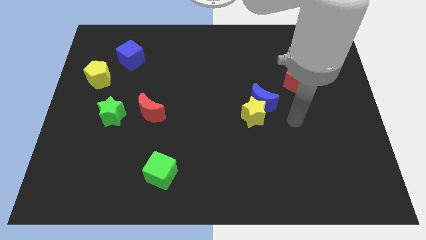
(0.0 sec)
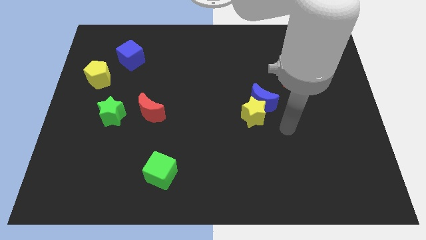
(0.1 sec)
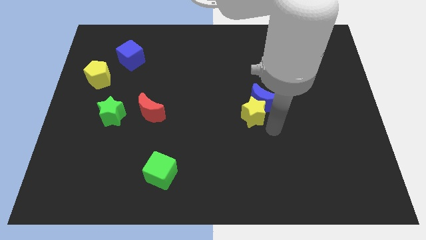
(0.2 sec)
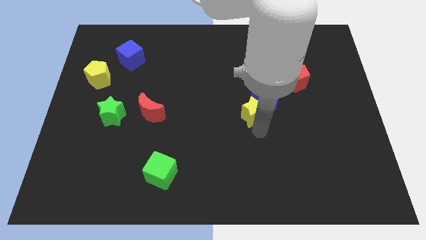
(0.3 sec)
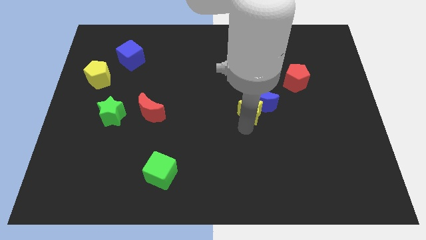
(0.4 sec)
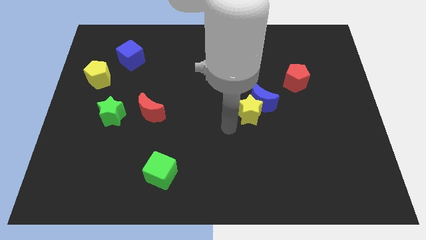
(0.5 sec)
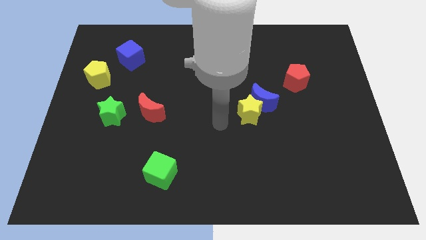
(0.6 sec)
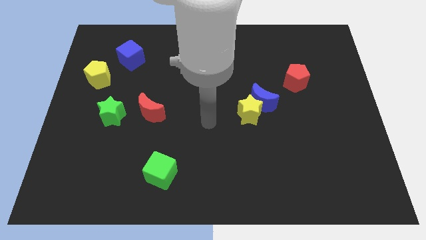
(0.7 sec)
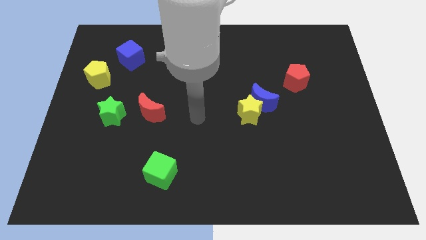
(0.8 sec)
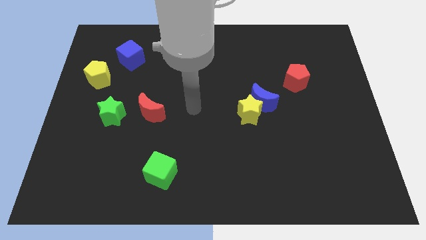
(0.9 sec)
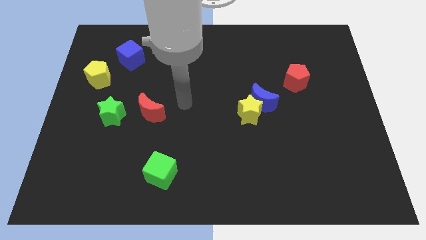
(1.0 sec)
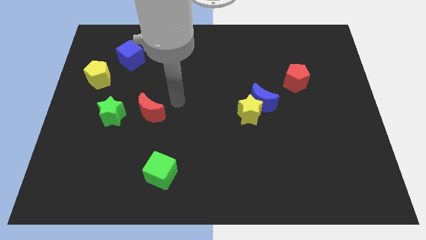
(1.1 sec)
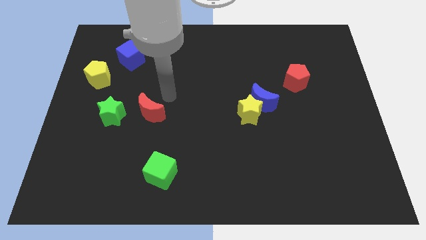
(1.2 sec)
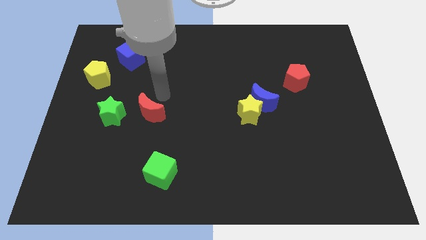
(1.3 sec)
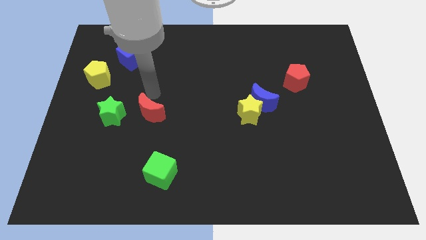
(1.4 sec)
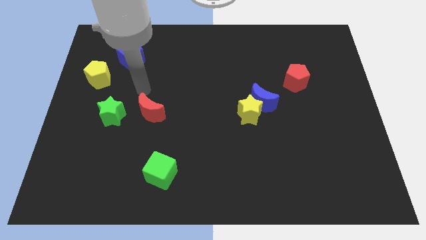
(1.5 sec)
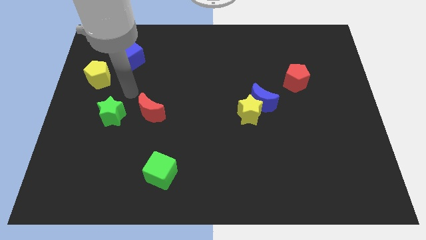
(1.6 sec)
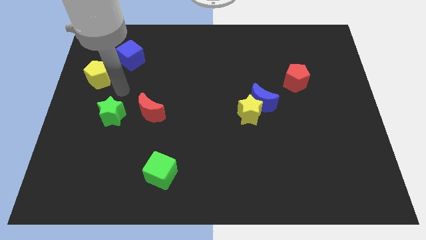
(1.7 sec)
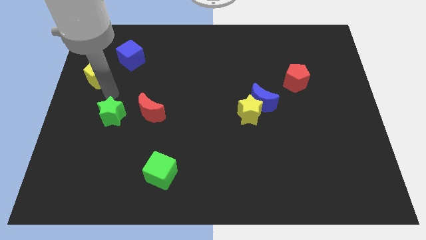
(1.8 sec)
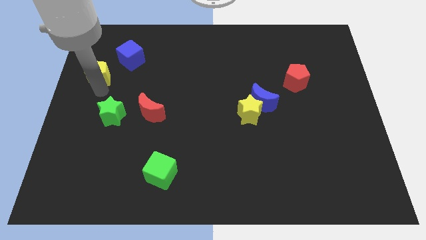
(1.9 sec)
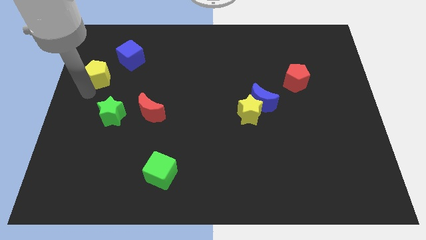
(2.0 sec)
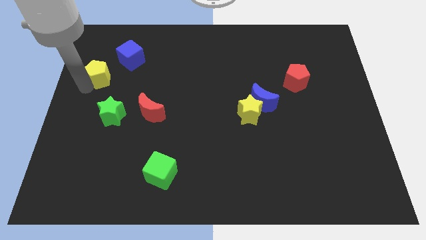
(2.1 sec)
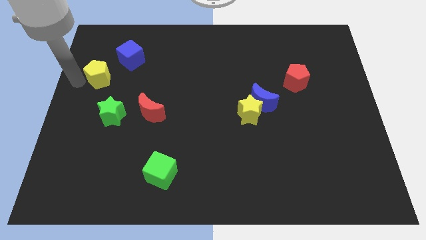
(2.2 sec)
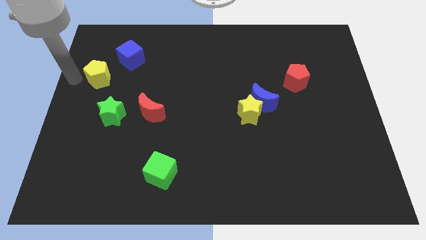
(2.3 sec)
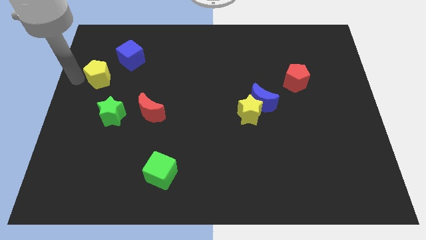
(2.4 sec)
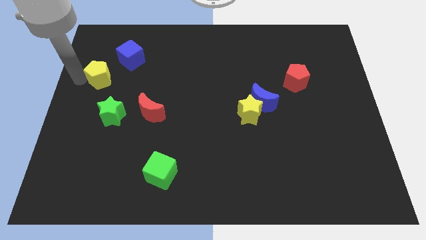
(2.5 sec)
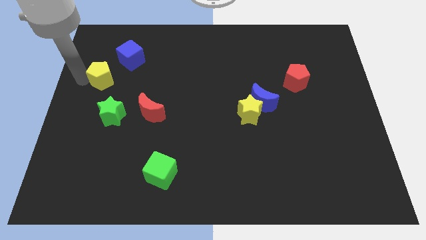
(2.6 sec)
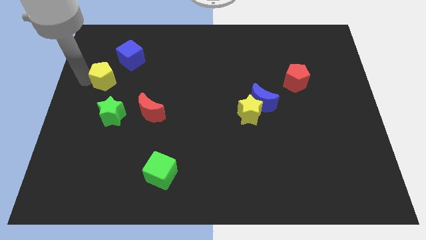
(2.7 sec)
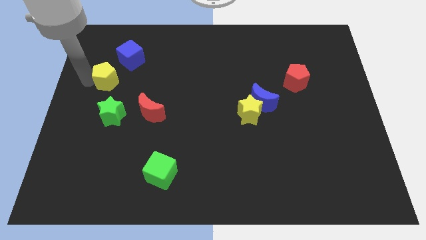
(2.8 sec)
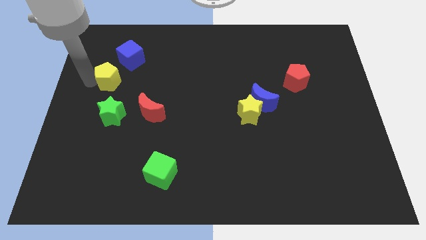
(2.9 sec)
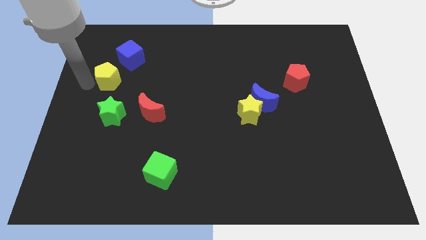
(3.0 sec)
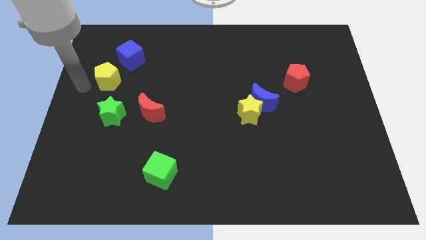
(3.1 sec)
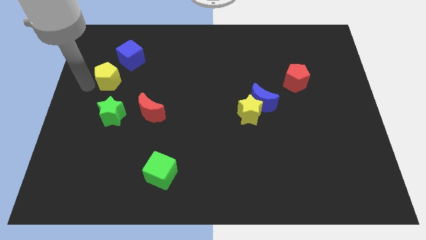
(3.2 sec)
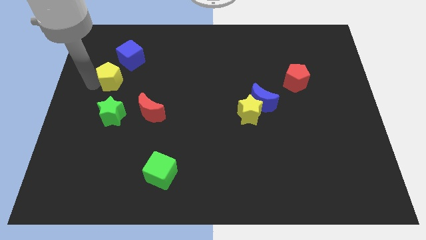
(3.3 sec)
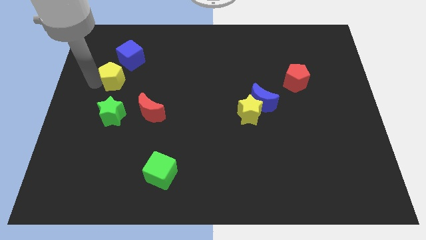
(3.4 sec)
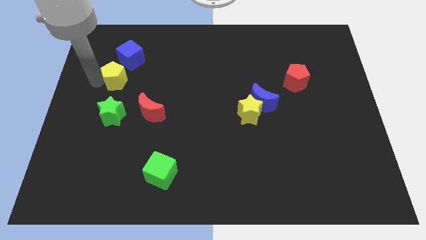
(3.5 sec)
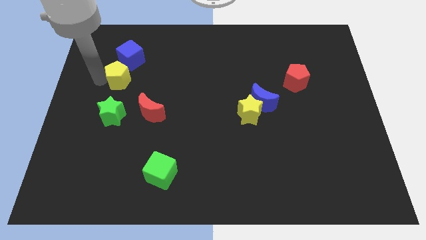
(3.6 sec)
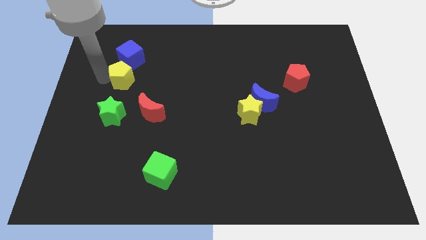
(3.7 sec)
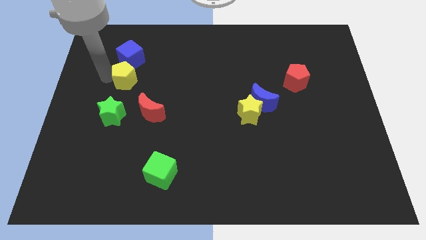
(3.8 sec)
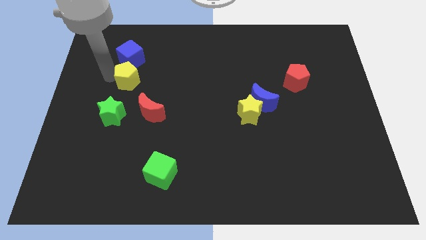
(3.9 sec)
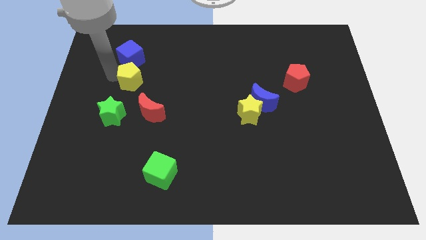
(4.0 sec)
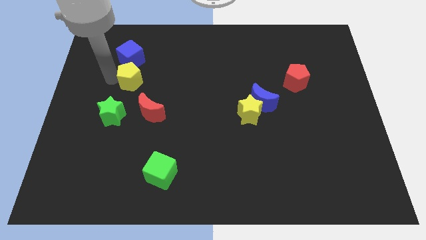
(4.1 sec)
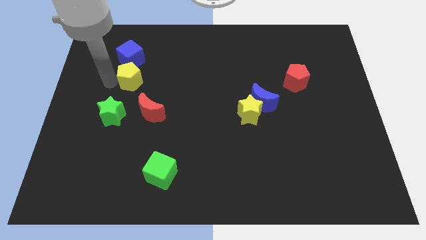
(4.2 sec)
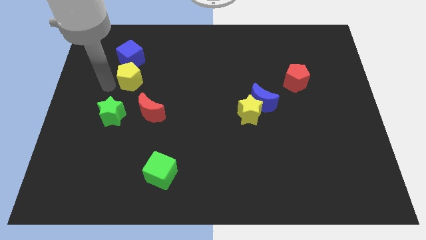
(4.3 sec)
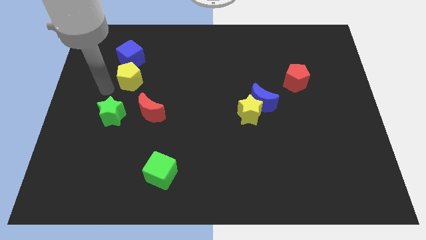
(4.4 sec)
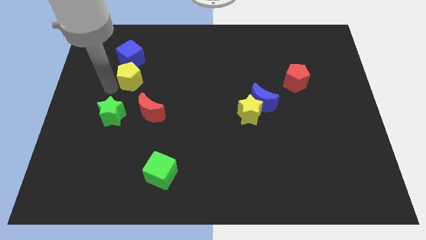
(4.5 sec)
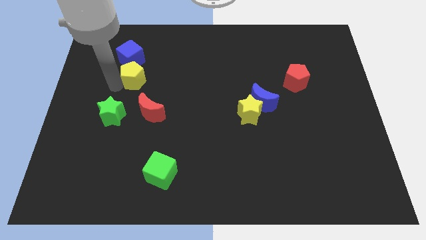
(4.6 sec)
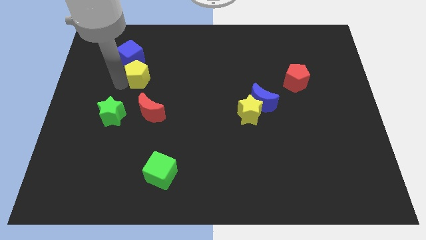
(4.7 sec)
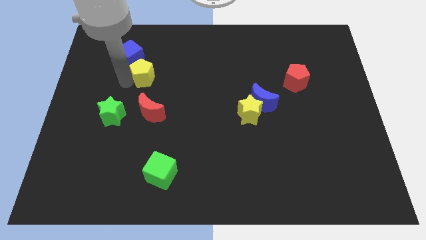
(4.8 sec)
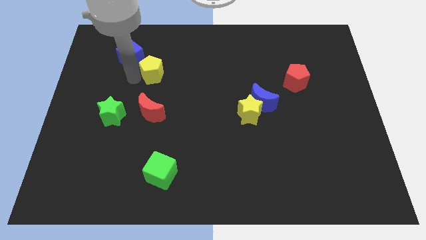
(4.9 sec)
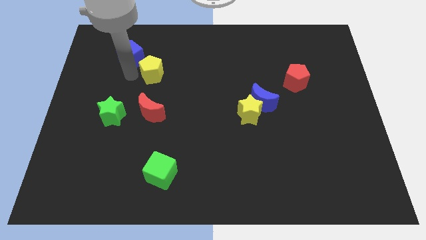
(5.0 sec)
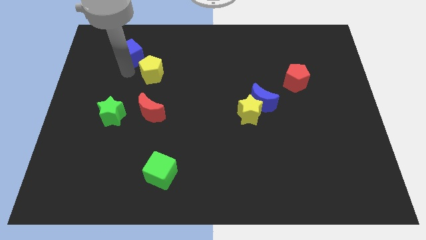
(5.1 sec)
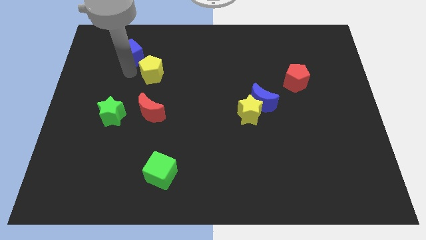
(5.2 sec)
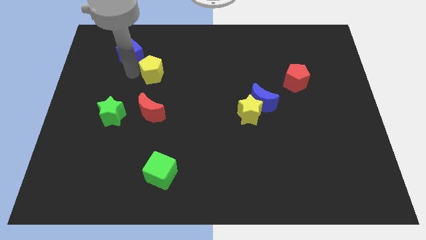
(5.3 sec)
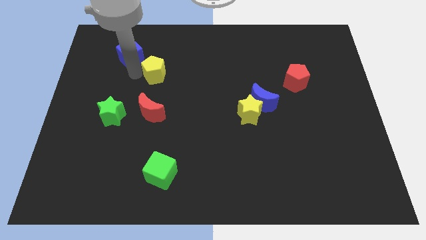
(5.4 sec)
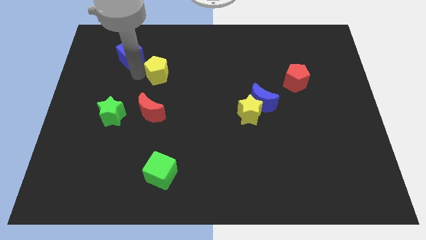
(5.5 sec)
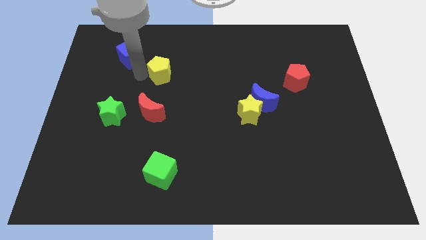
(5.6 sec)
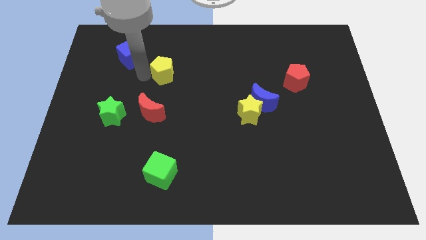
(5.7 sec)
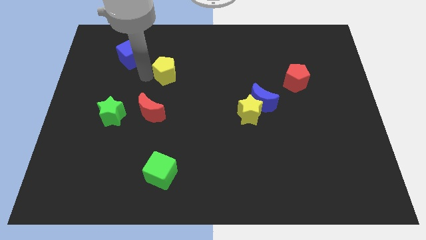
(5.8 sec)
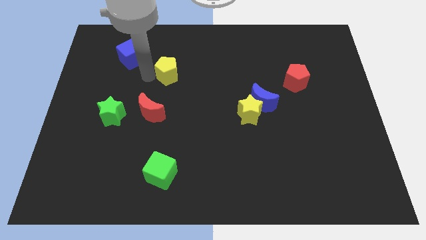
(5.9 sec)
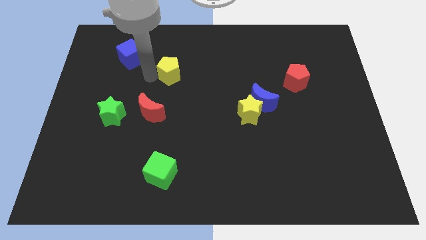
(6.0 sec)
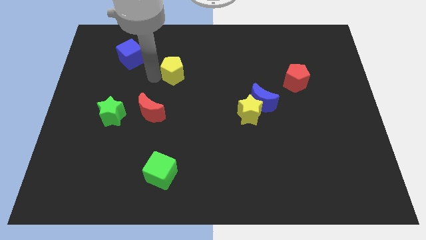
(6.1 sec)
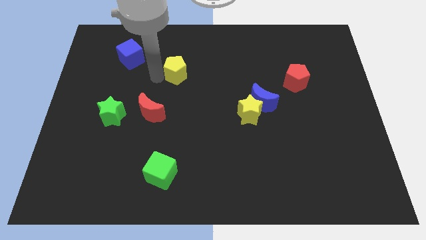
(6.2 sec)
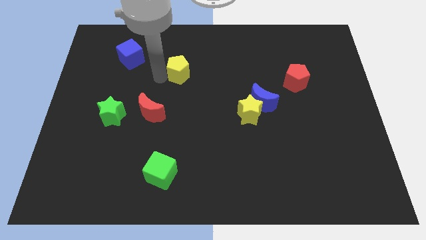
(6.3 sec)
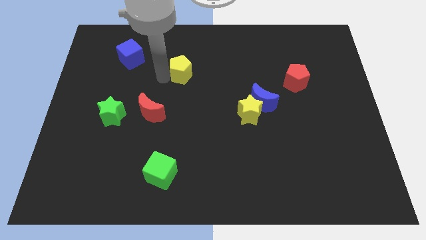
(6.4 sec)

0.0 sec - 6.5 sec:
slide the yellow pentagon to the right

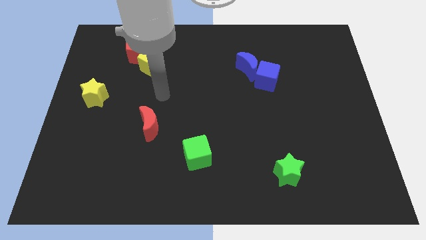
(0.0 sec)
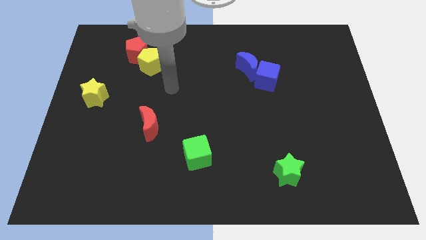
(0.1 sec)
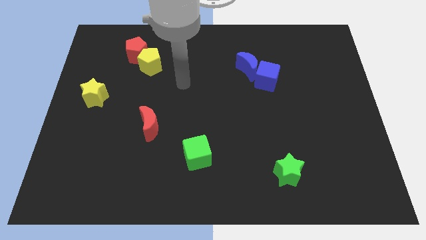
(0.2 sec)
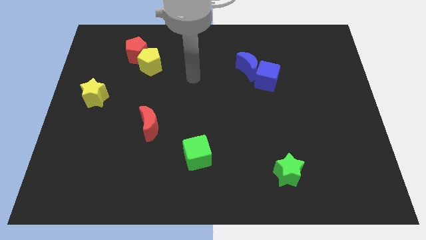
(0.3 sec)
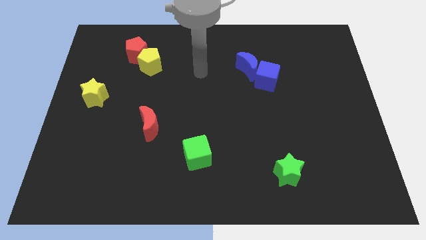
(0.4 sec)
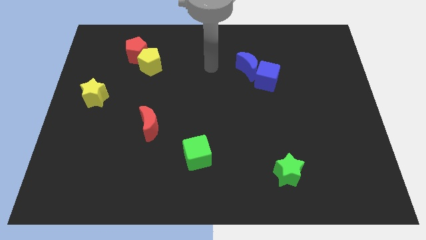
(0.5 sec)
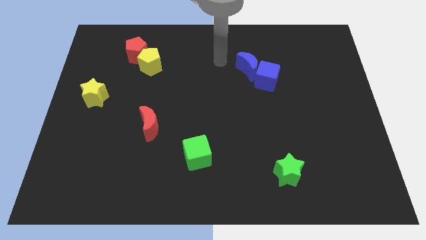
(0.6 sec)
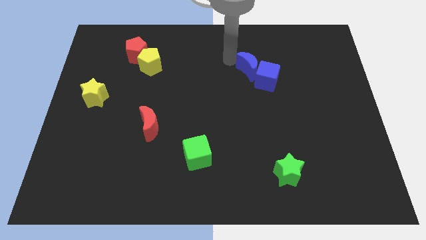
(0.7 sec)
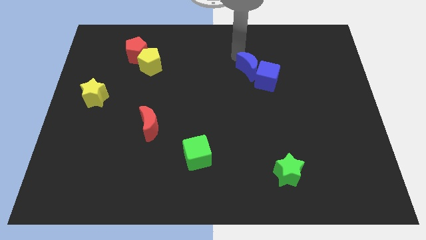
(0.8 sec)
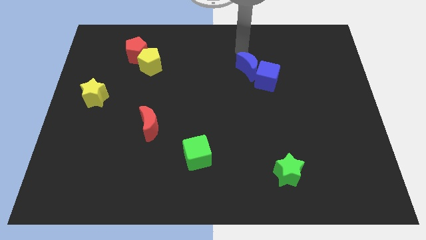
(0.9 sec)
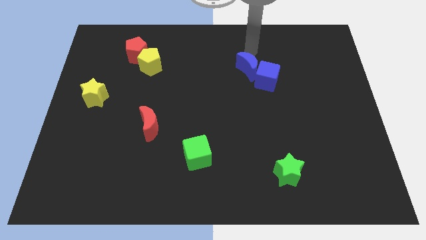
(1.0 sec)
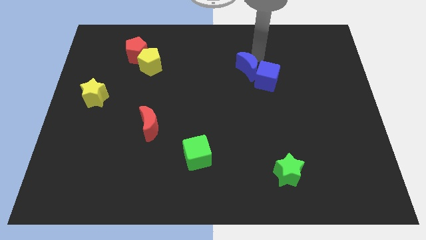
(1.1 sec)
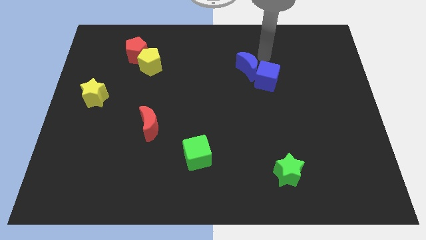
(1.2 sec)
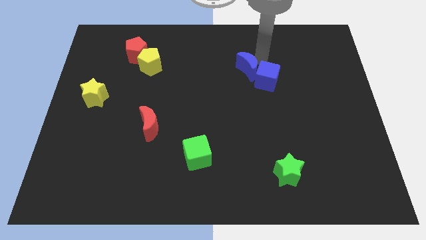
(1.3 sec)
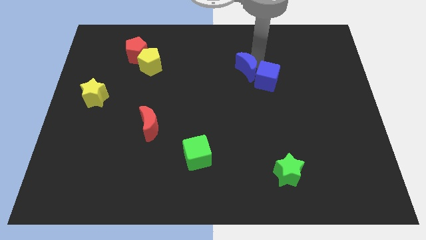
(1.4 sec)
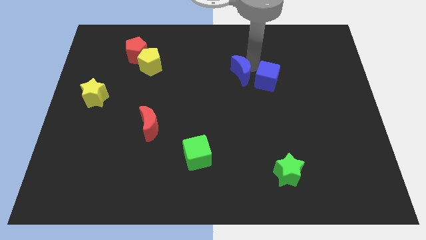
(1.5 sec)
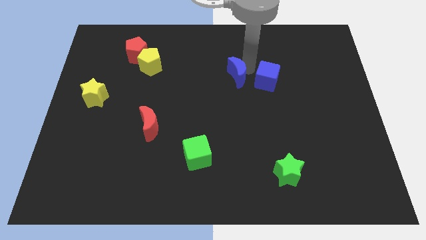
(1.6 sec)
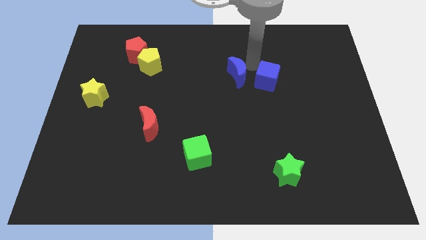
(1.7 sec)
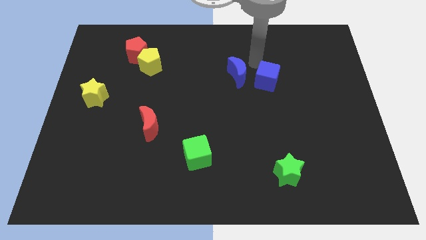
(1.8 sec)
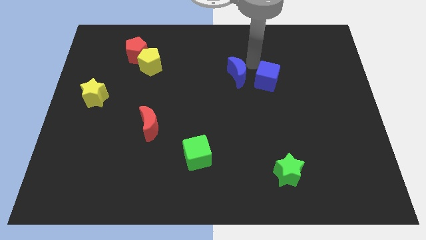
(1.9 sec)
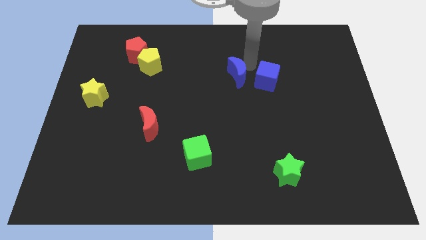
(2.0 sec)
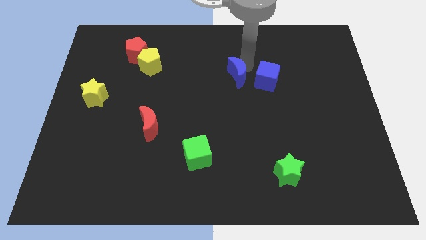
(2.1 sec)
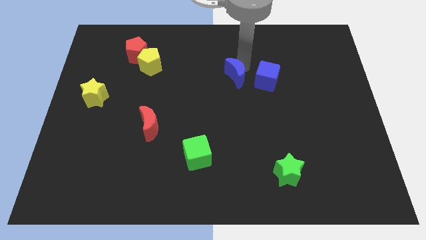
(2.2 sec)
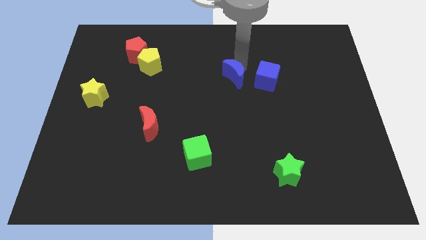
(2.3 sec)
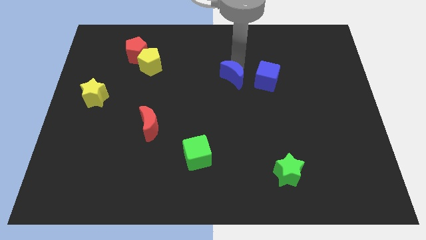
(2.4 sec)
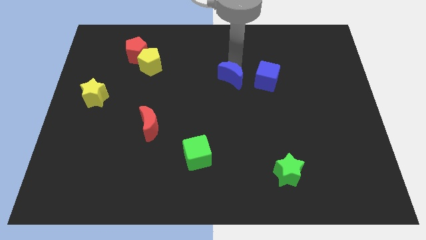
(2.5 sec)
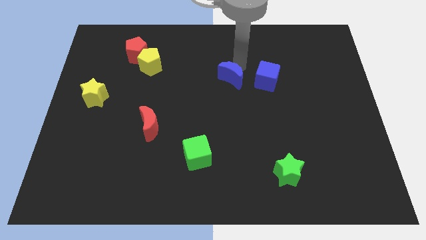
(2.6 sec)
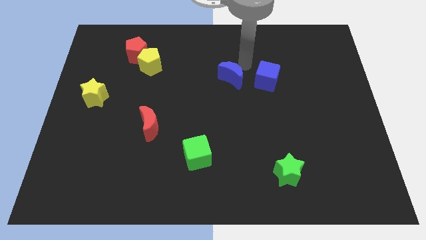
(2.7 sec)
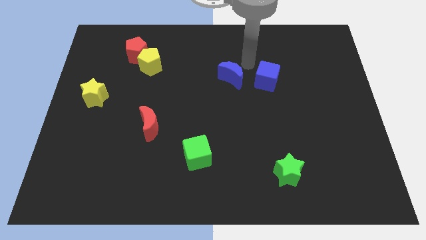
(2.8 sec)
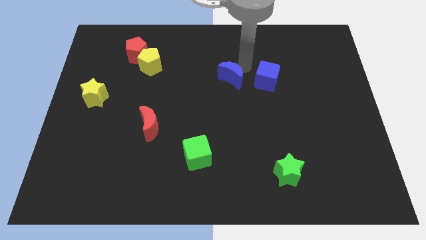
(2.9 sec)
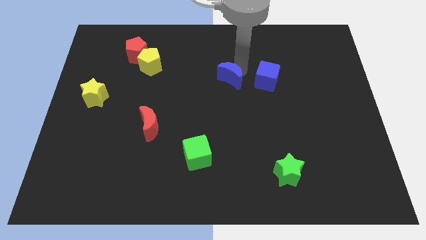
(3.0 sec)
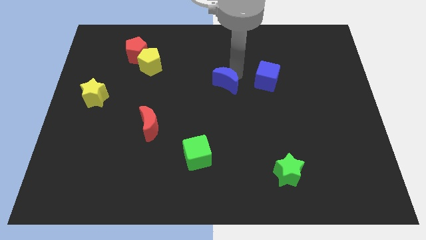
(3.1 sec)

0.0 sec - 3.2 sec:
slightly slide the blue moon down and to the left diagonally
